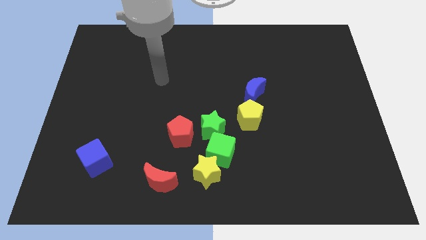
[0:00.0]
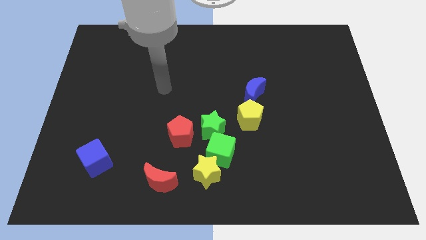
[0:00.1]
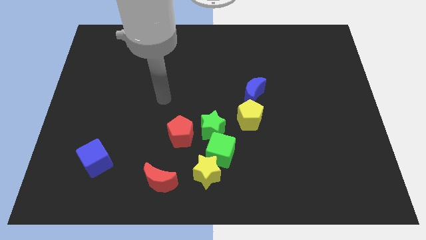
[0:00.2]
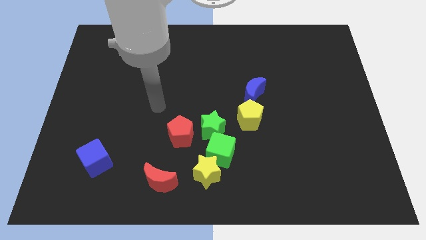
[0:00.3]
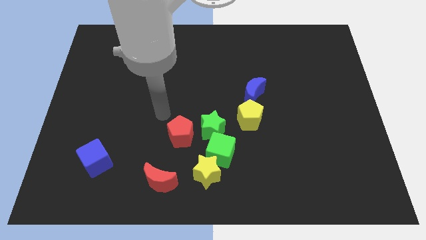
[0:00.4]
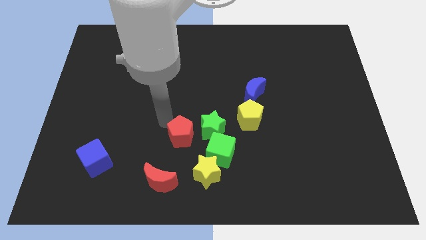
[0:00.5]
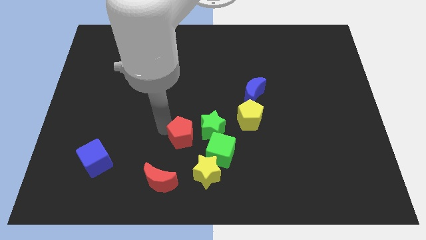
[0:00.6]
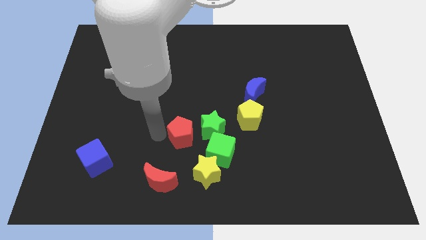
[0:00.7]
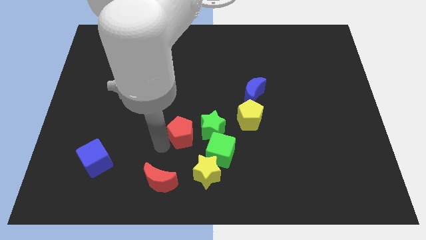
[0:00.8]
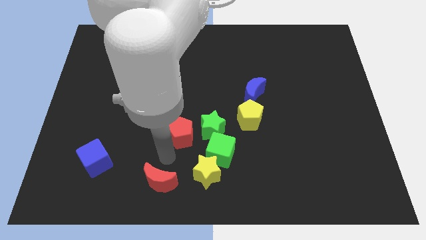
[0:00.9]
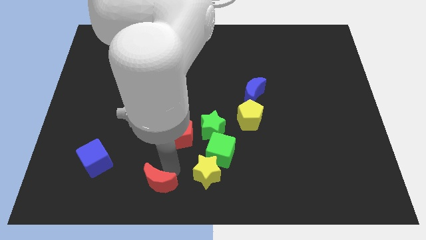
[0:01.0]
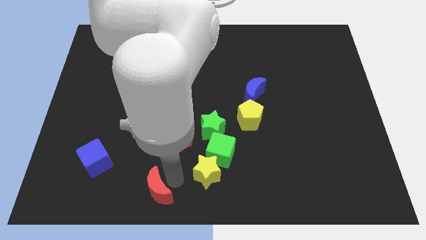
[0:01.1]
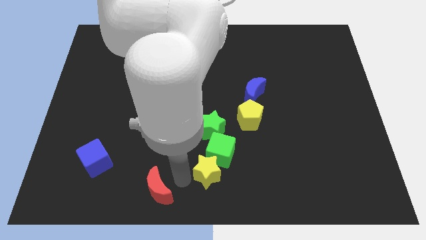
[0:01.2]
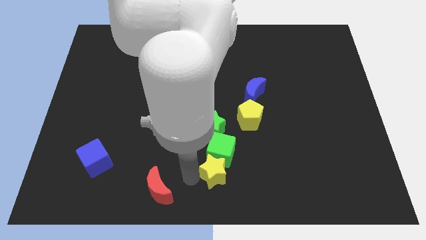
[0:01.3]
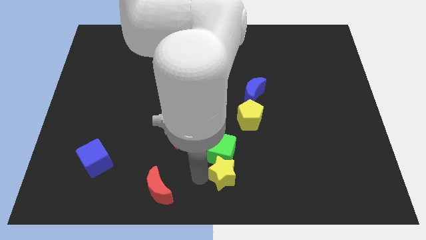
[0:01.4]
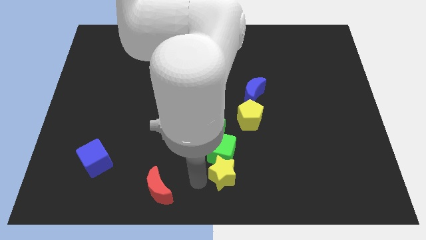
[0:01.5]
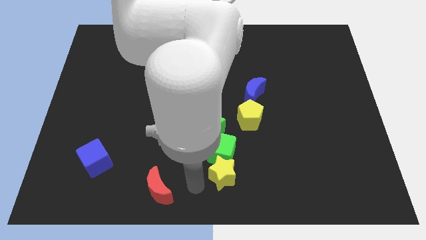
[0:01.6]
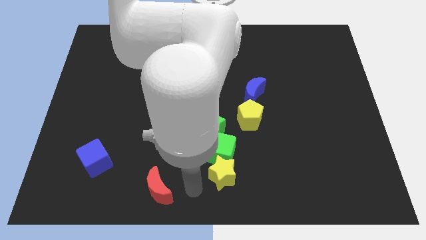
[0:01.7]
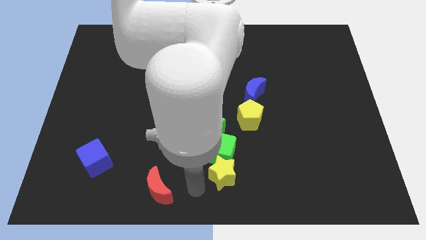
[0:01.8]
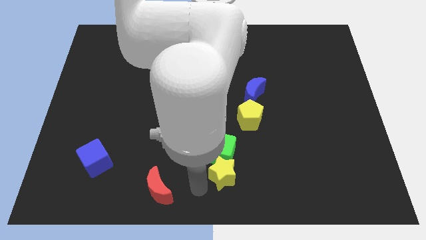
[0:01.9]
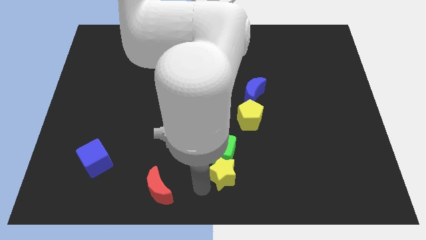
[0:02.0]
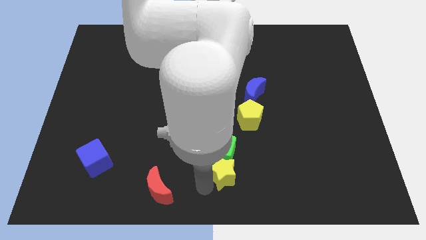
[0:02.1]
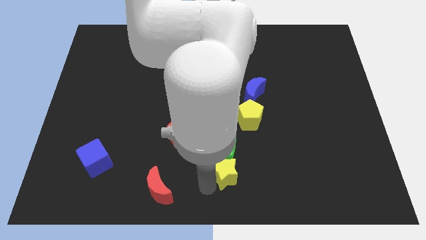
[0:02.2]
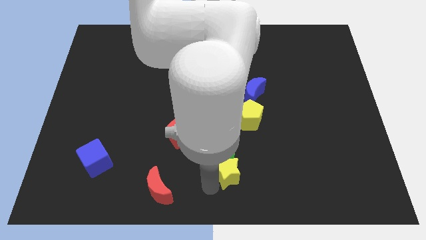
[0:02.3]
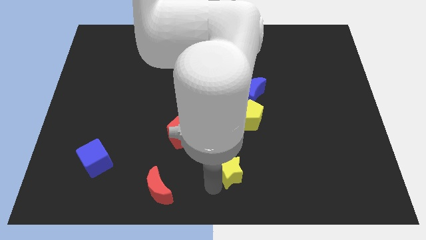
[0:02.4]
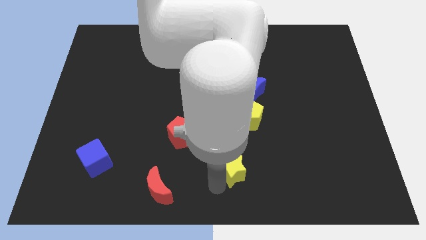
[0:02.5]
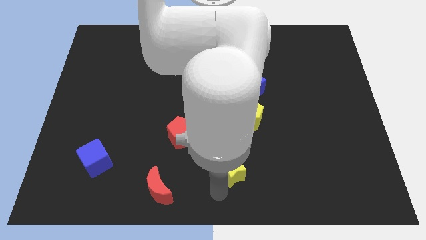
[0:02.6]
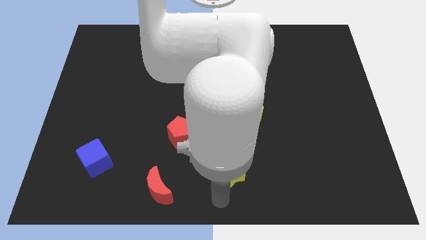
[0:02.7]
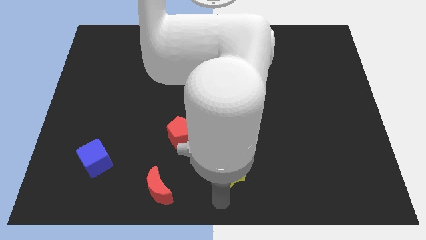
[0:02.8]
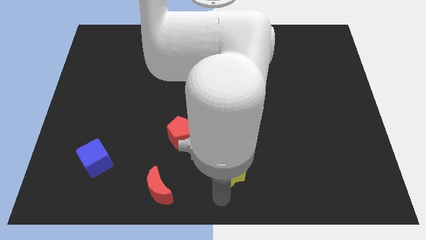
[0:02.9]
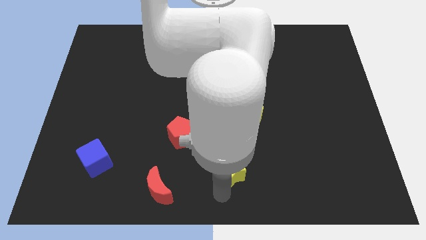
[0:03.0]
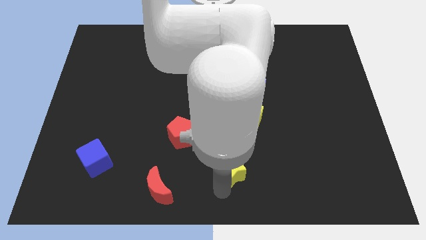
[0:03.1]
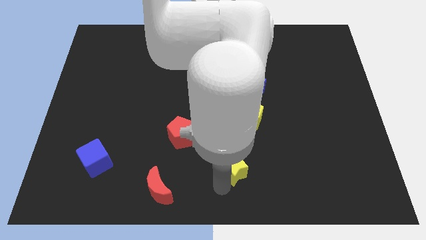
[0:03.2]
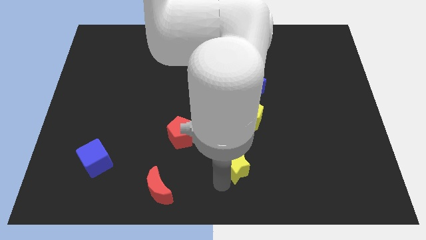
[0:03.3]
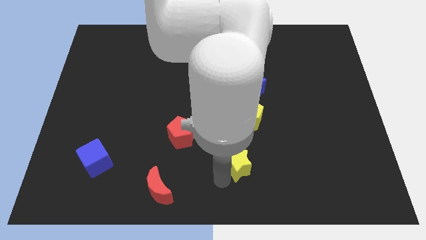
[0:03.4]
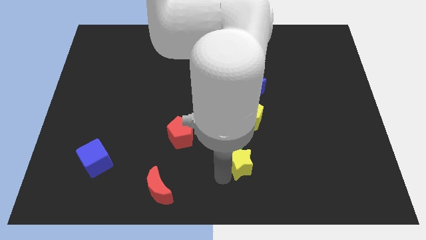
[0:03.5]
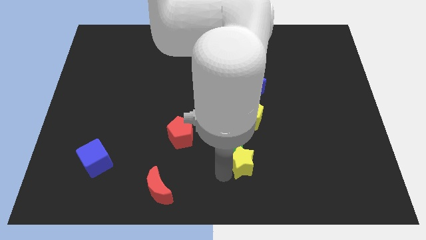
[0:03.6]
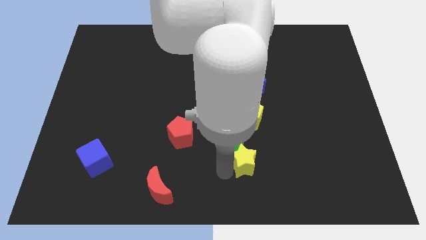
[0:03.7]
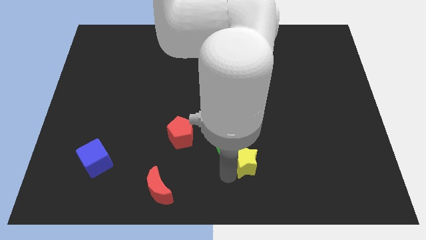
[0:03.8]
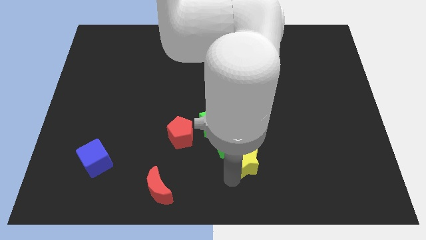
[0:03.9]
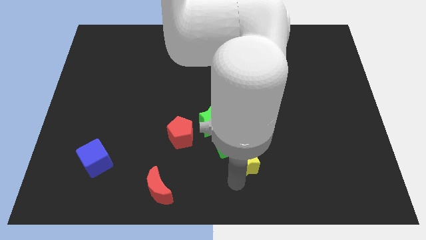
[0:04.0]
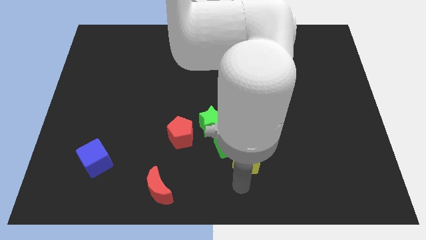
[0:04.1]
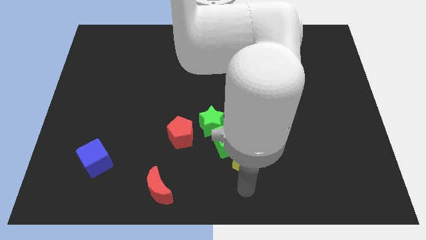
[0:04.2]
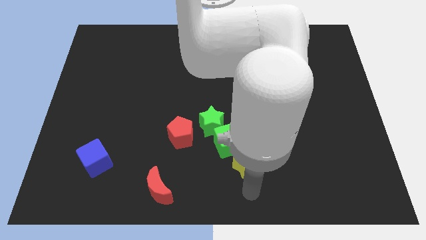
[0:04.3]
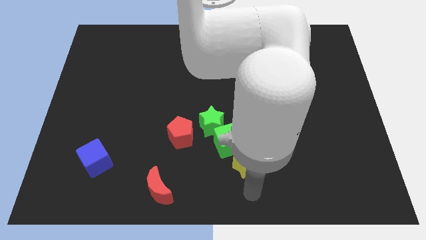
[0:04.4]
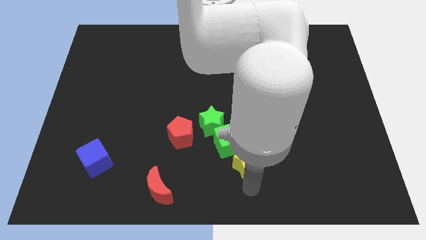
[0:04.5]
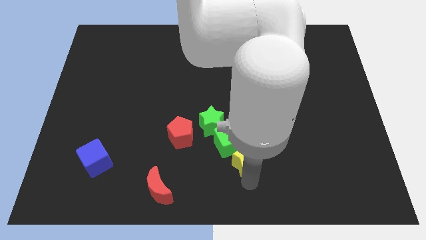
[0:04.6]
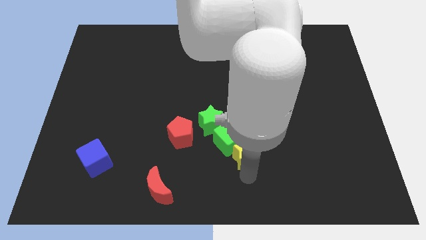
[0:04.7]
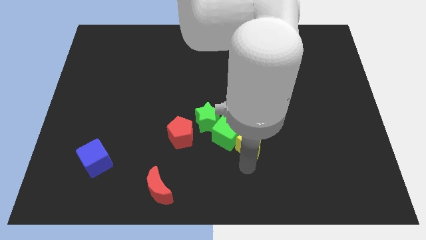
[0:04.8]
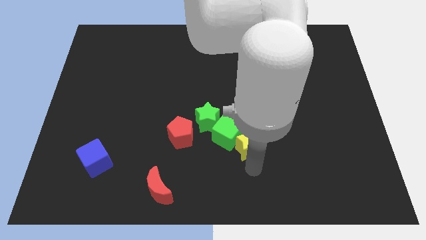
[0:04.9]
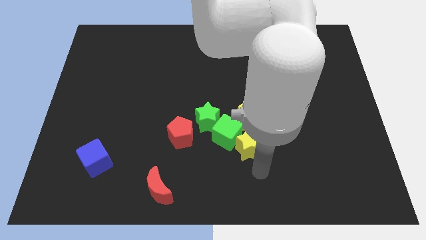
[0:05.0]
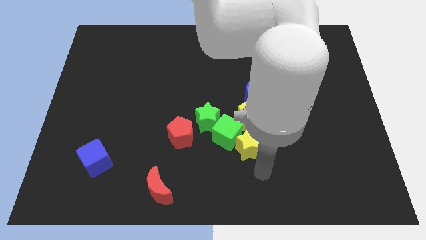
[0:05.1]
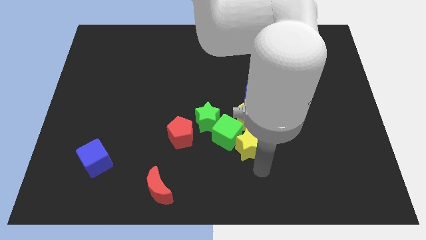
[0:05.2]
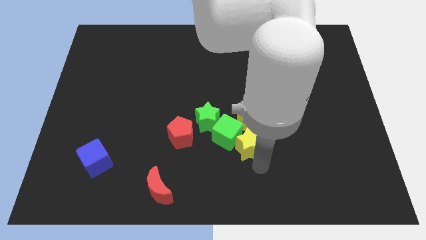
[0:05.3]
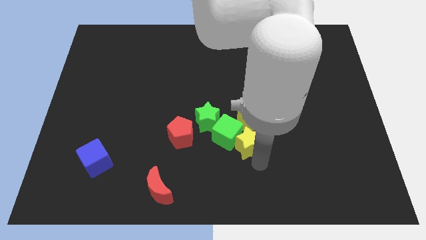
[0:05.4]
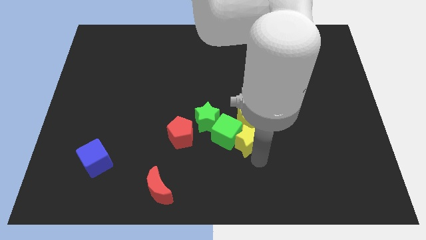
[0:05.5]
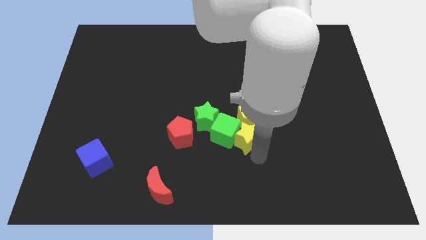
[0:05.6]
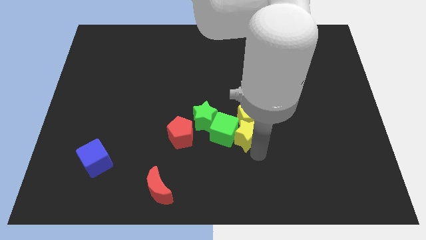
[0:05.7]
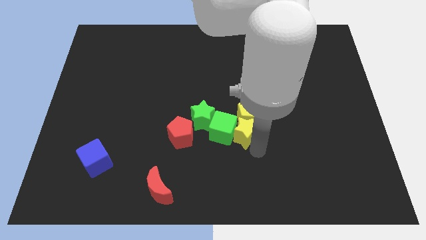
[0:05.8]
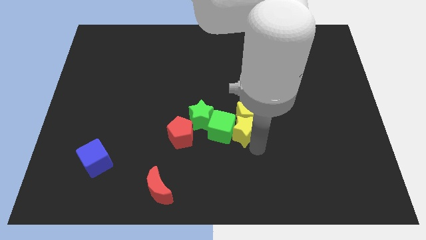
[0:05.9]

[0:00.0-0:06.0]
move the yellow star slightly up

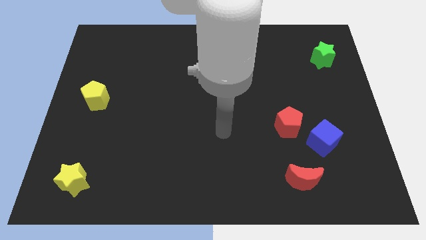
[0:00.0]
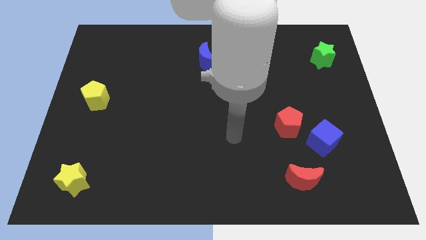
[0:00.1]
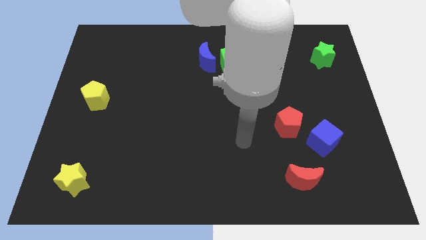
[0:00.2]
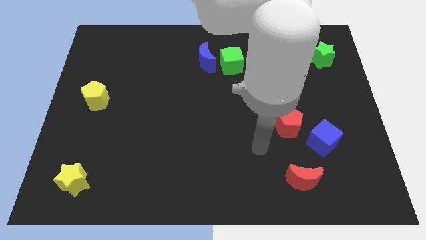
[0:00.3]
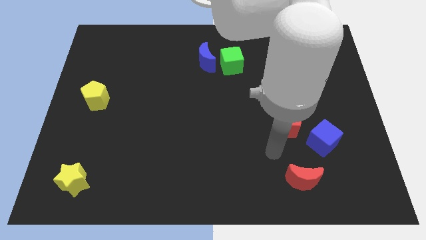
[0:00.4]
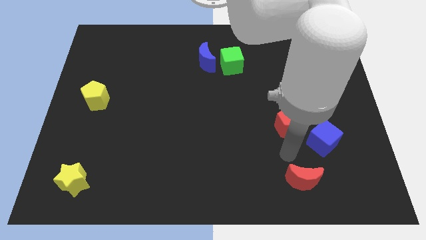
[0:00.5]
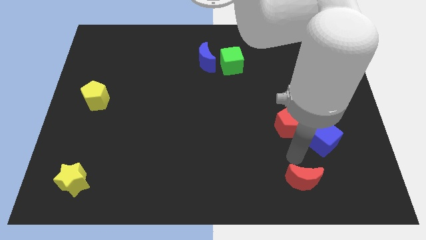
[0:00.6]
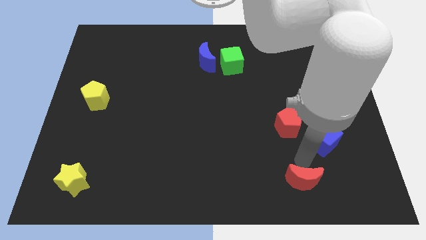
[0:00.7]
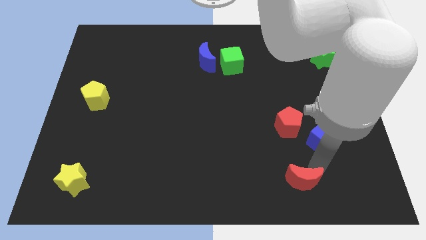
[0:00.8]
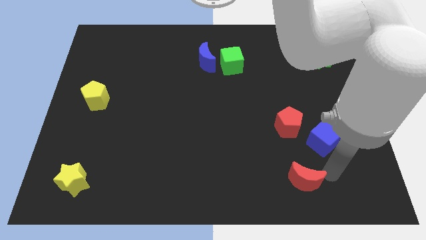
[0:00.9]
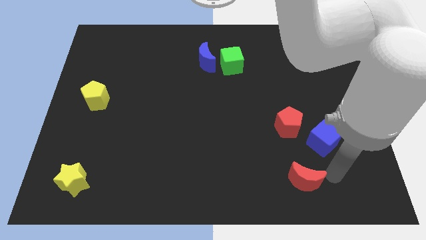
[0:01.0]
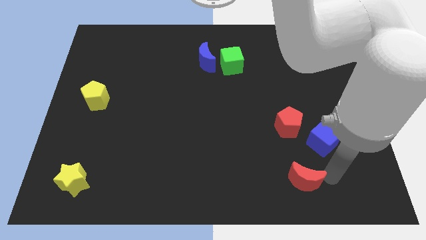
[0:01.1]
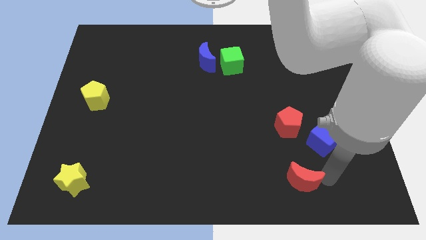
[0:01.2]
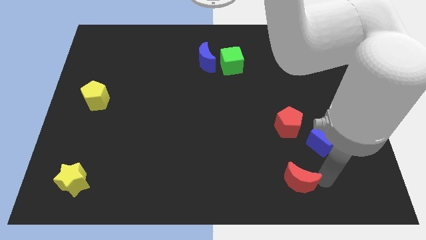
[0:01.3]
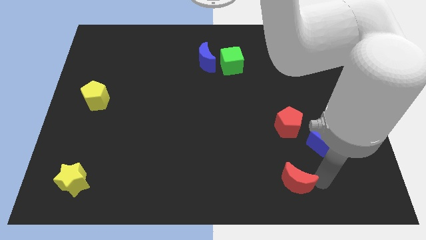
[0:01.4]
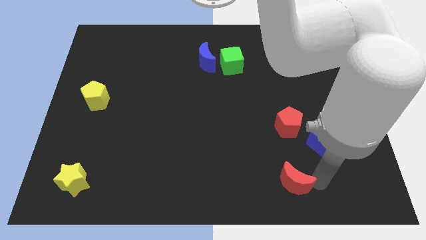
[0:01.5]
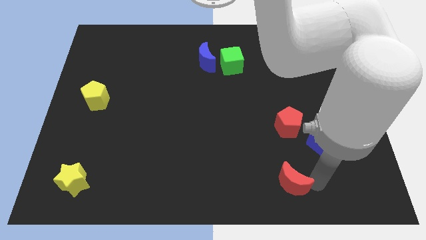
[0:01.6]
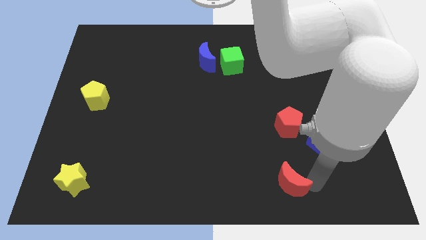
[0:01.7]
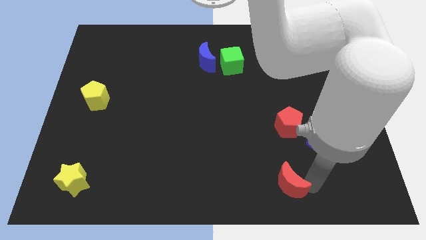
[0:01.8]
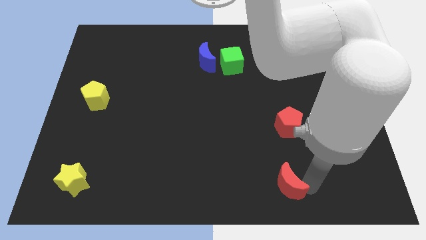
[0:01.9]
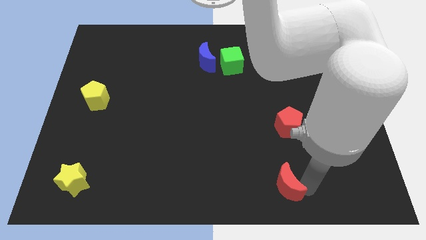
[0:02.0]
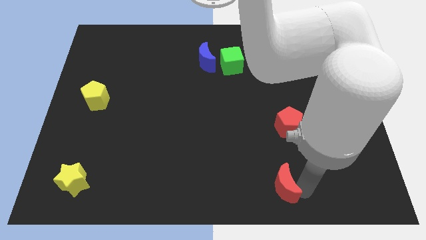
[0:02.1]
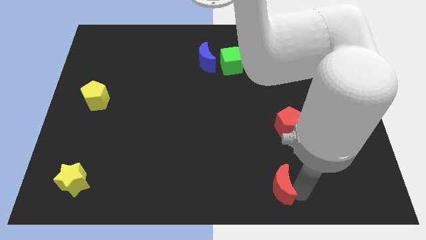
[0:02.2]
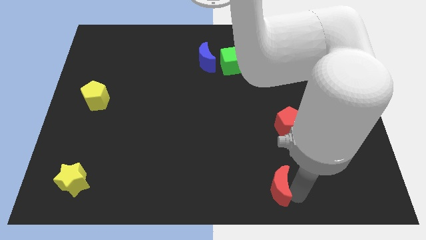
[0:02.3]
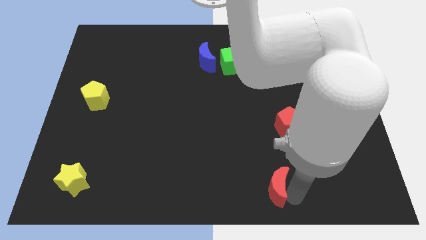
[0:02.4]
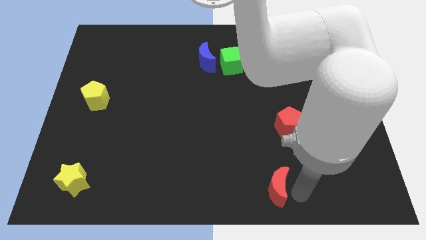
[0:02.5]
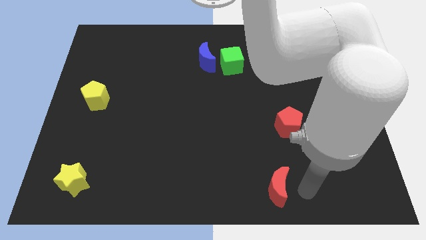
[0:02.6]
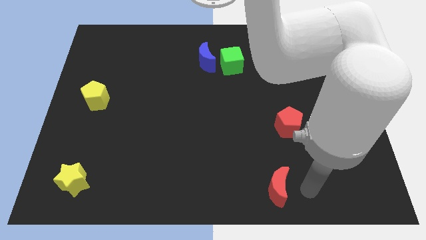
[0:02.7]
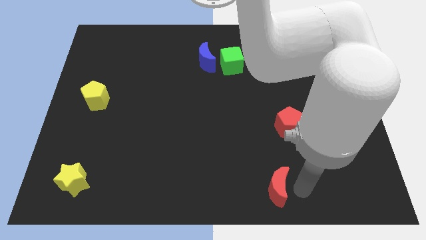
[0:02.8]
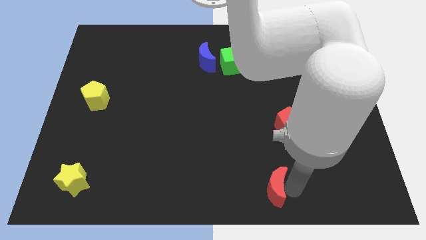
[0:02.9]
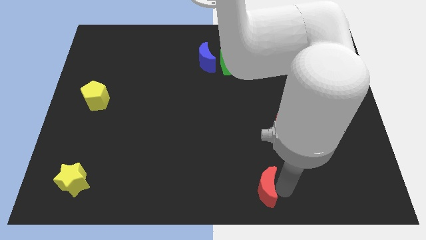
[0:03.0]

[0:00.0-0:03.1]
slide the red moon a little to the left
